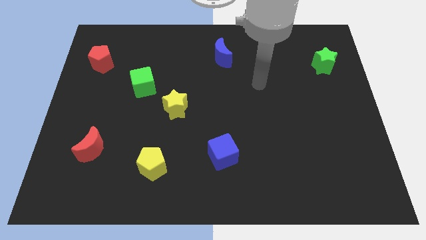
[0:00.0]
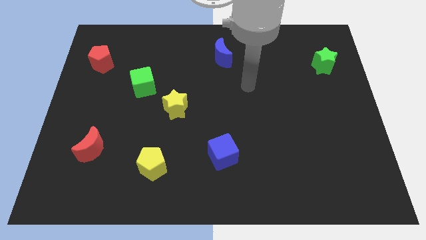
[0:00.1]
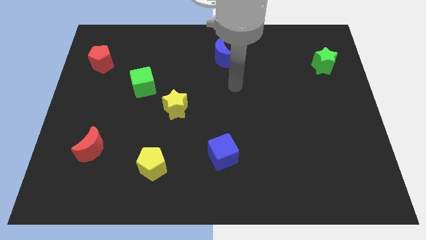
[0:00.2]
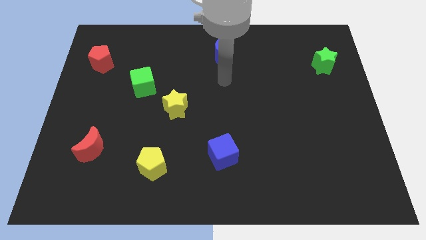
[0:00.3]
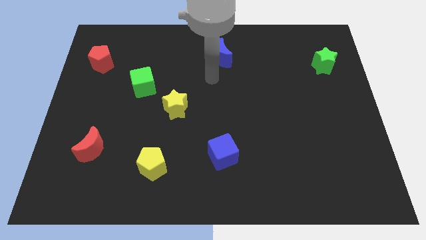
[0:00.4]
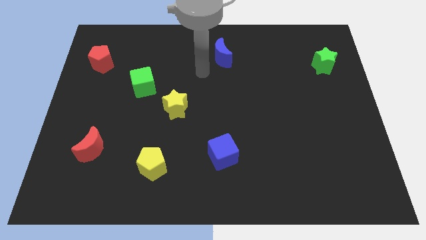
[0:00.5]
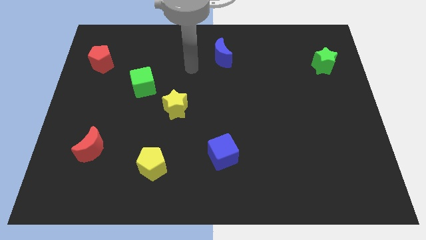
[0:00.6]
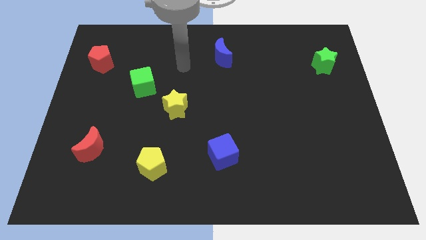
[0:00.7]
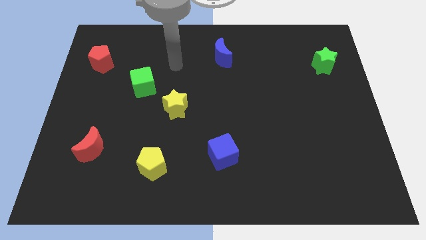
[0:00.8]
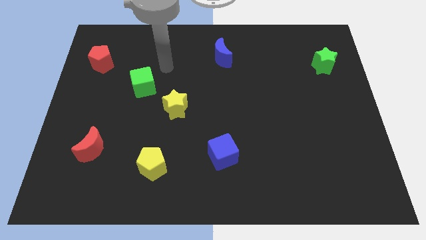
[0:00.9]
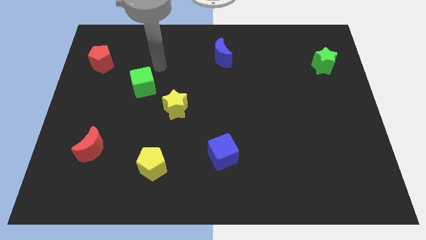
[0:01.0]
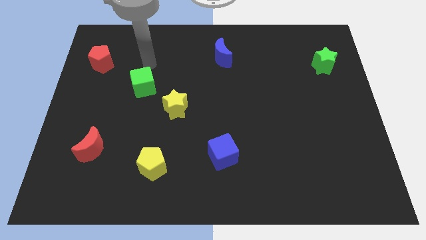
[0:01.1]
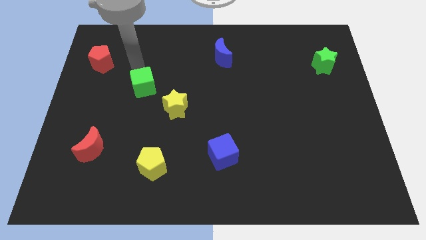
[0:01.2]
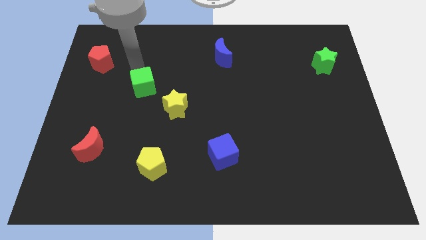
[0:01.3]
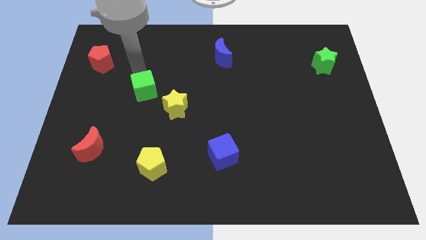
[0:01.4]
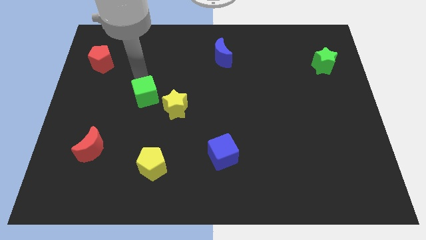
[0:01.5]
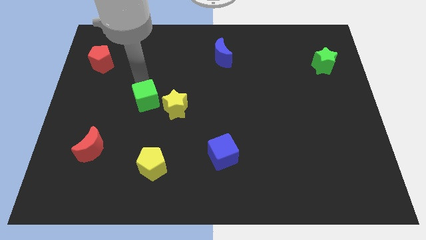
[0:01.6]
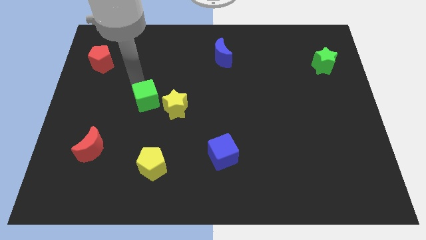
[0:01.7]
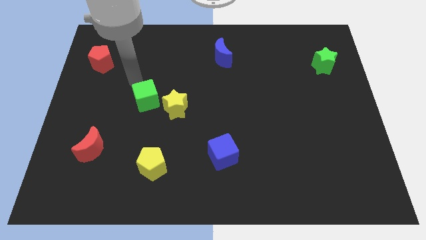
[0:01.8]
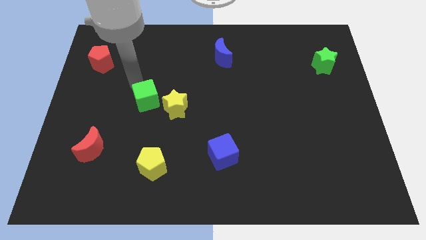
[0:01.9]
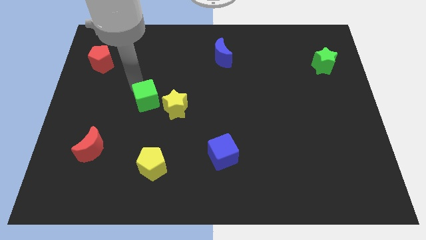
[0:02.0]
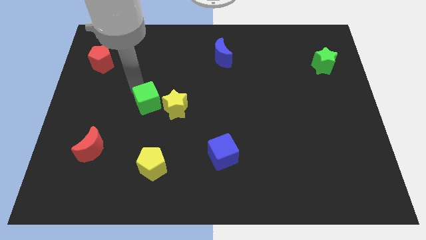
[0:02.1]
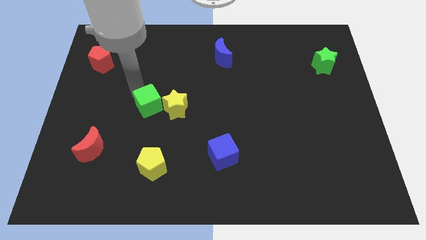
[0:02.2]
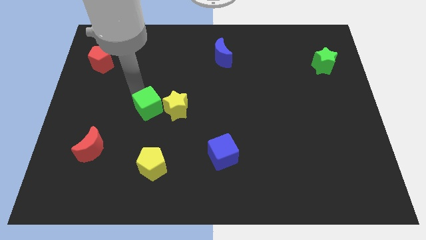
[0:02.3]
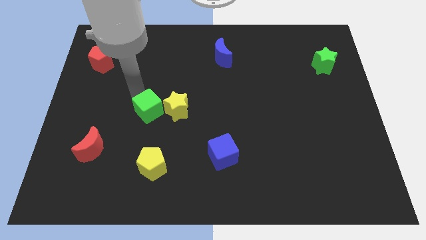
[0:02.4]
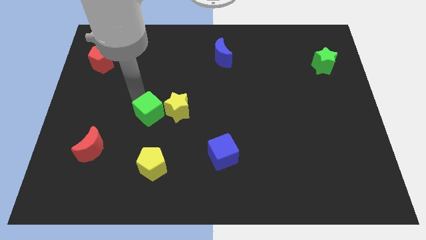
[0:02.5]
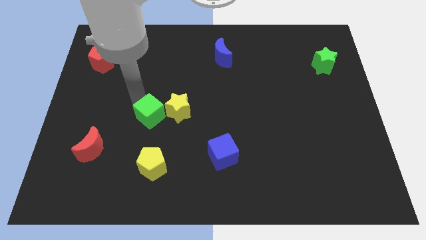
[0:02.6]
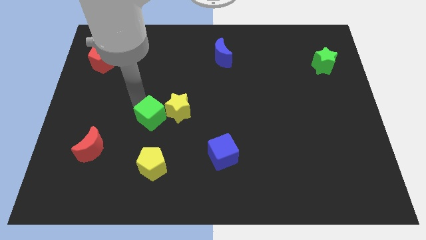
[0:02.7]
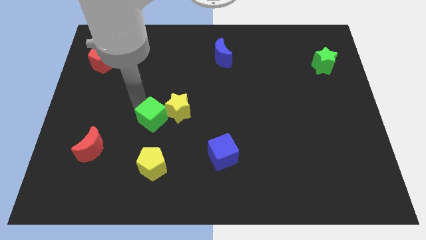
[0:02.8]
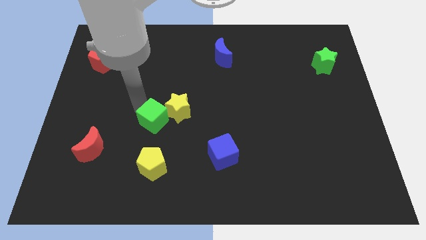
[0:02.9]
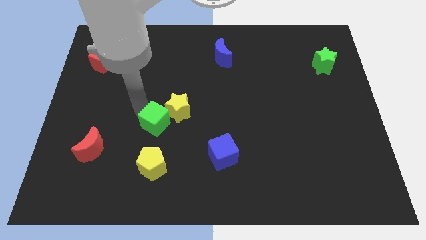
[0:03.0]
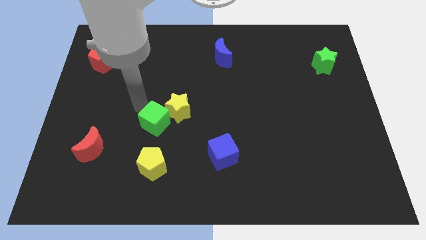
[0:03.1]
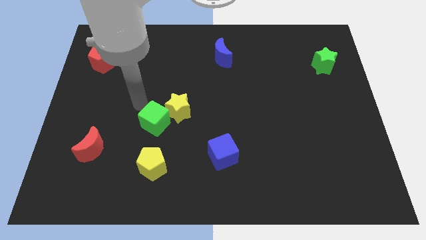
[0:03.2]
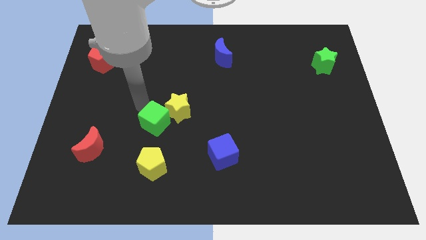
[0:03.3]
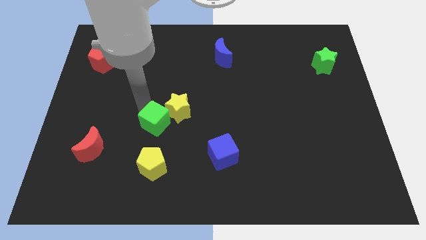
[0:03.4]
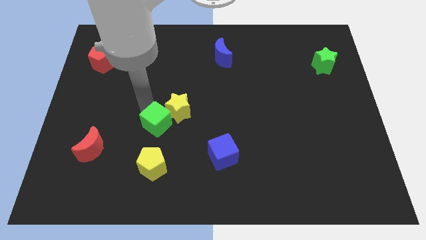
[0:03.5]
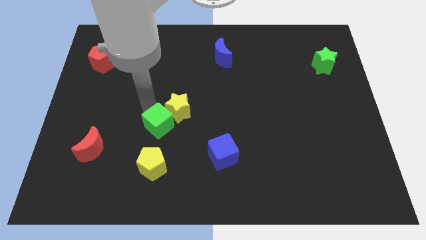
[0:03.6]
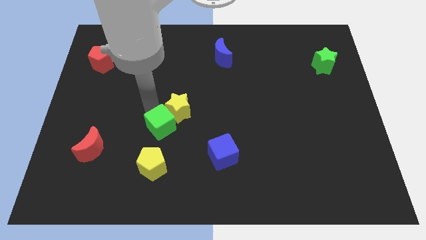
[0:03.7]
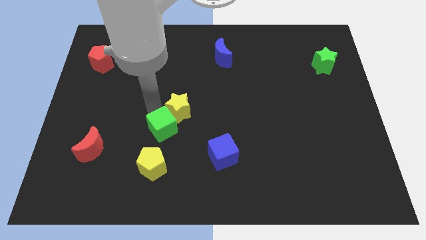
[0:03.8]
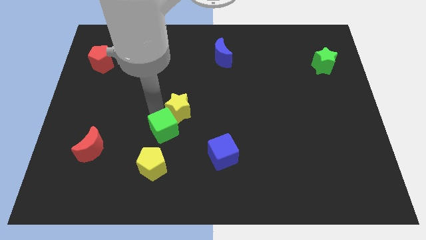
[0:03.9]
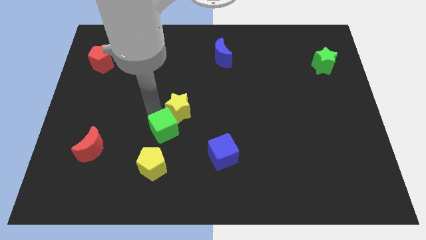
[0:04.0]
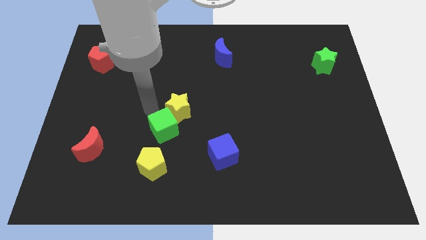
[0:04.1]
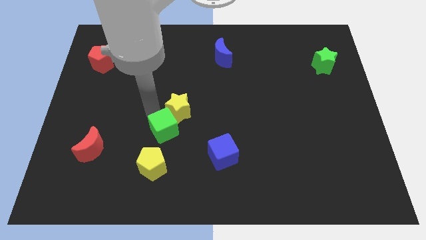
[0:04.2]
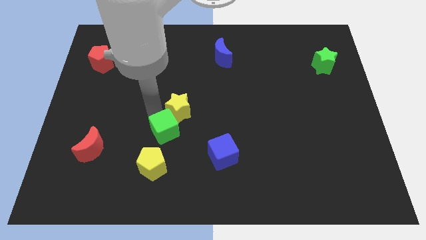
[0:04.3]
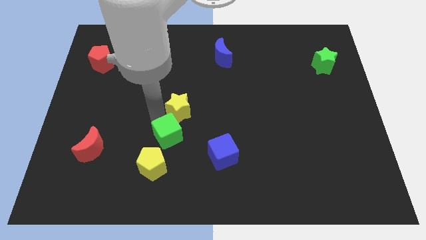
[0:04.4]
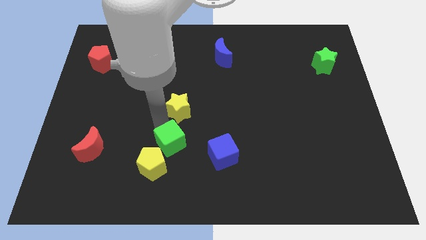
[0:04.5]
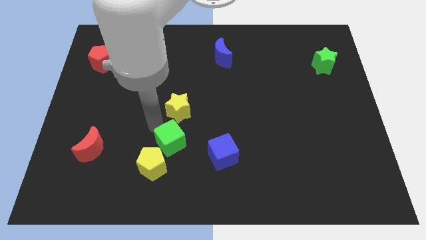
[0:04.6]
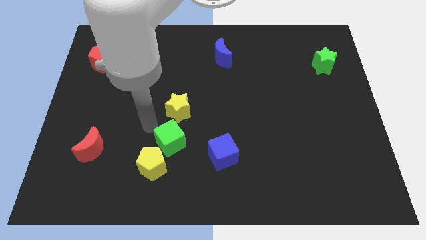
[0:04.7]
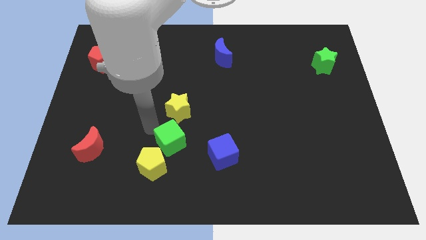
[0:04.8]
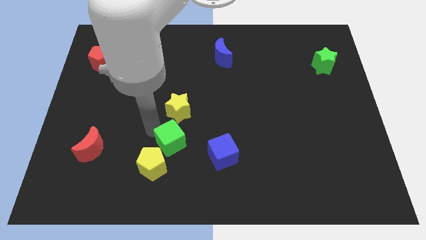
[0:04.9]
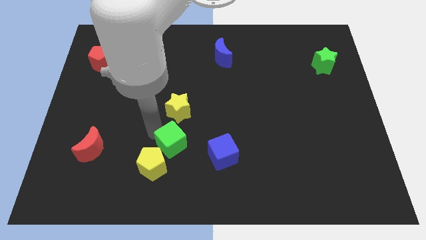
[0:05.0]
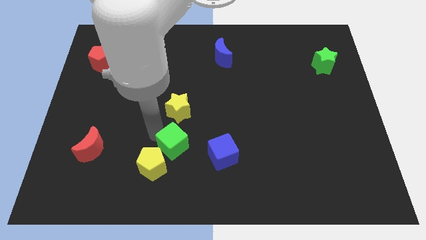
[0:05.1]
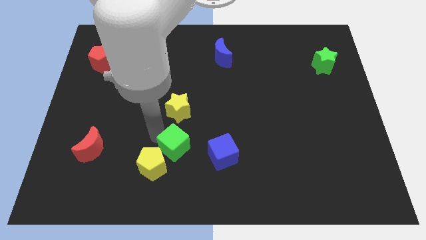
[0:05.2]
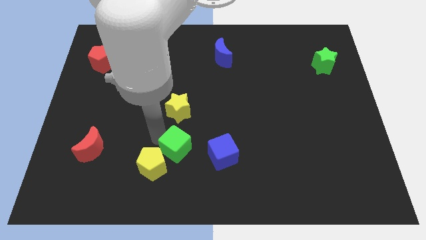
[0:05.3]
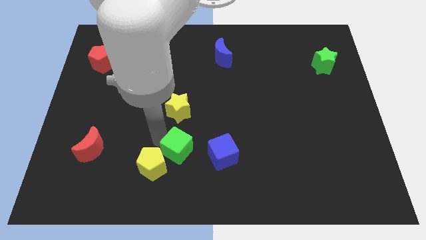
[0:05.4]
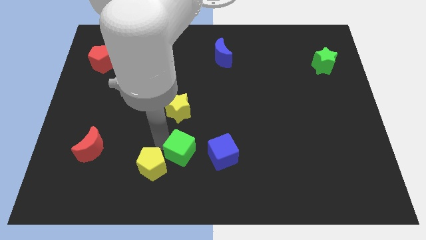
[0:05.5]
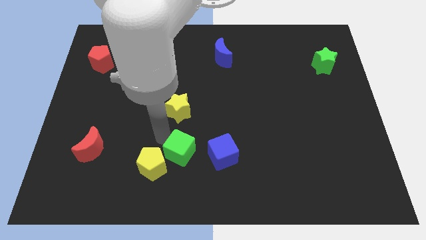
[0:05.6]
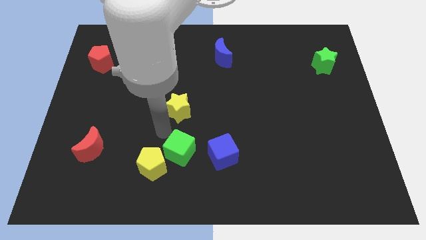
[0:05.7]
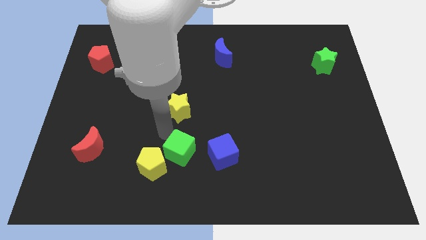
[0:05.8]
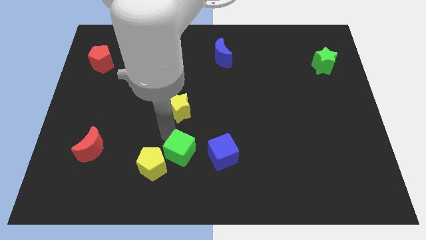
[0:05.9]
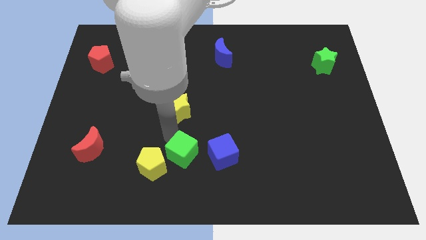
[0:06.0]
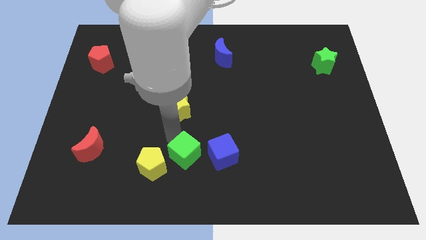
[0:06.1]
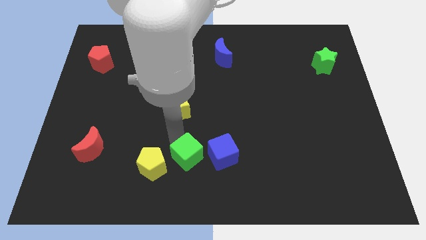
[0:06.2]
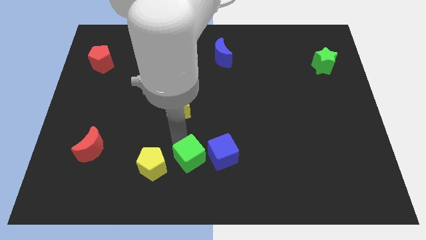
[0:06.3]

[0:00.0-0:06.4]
move the green cube to the bottom side
